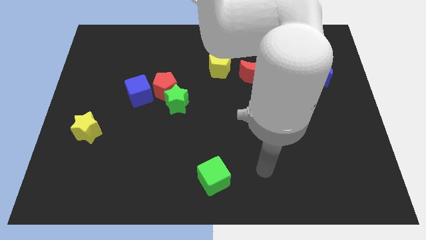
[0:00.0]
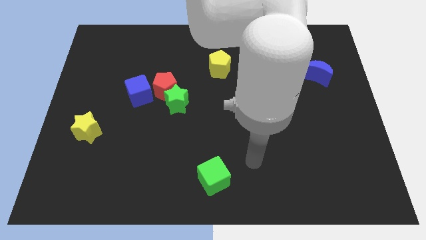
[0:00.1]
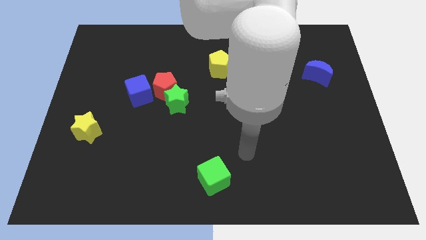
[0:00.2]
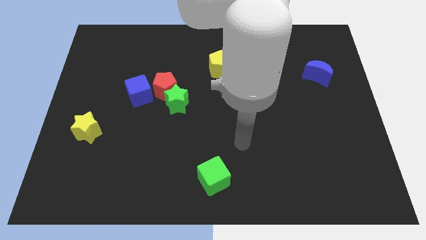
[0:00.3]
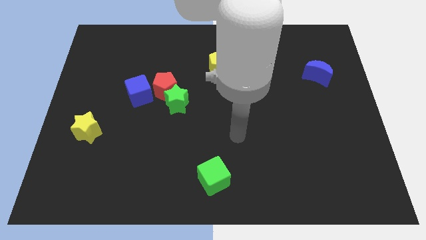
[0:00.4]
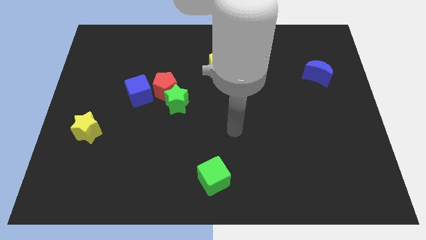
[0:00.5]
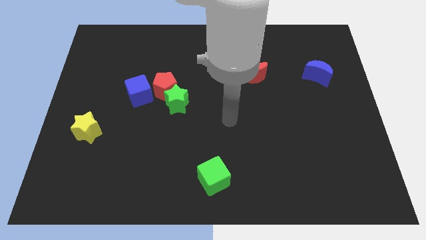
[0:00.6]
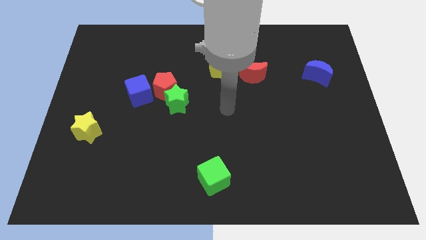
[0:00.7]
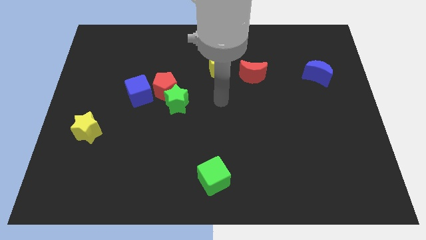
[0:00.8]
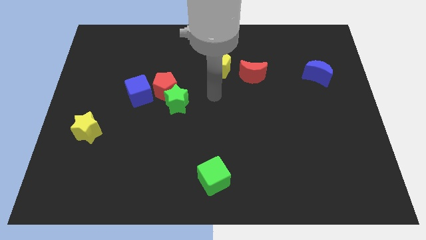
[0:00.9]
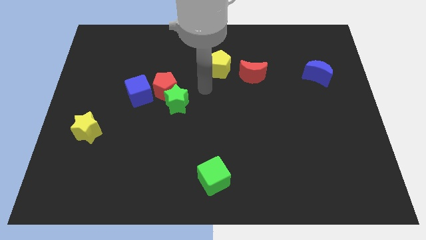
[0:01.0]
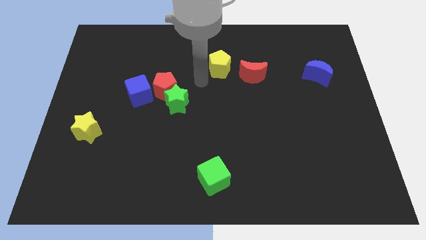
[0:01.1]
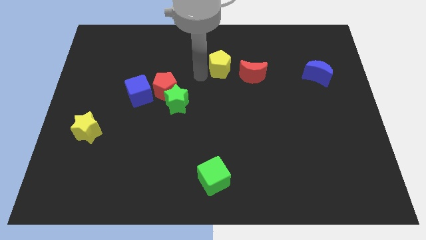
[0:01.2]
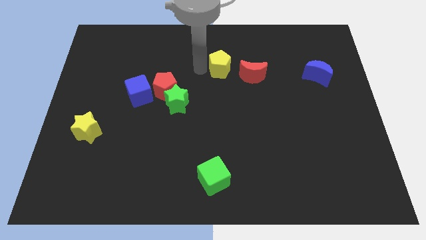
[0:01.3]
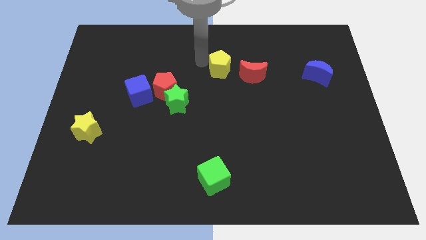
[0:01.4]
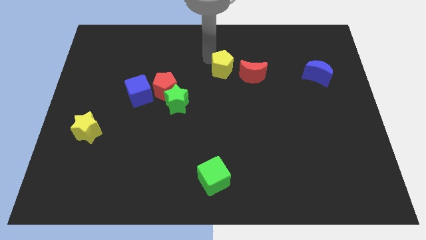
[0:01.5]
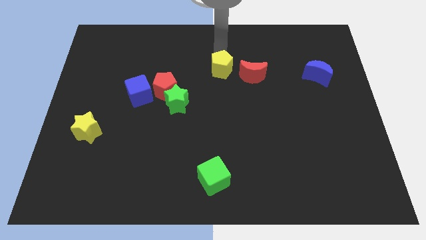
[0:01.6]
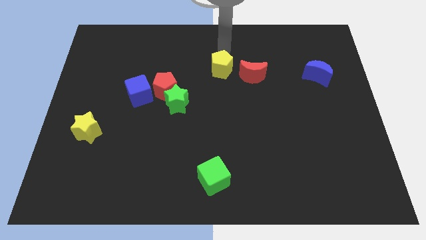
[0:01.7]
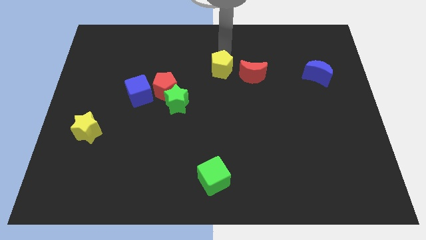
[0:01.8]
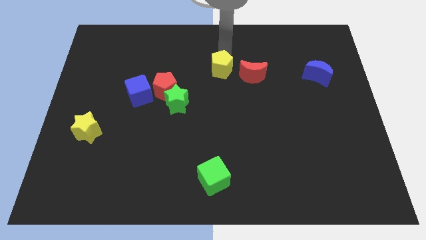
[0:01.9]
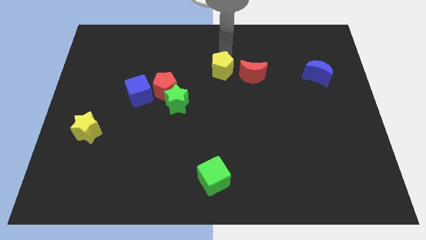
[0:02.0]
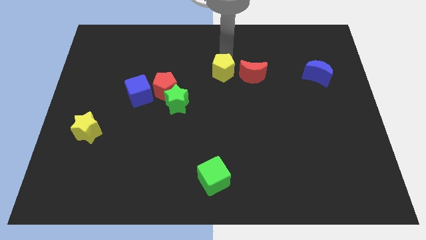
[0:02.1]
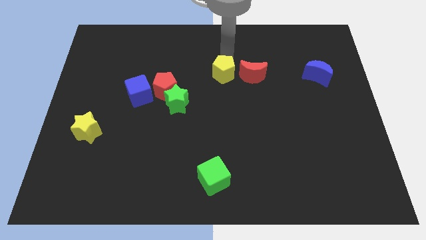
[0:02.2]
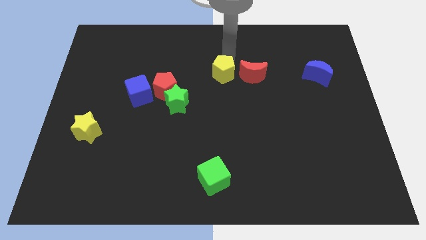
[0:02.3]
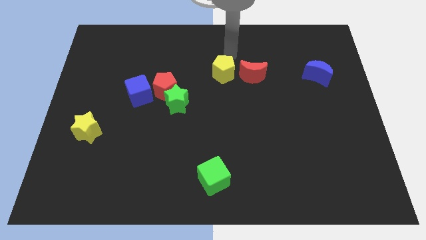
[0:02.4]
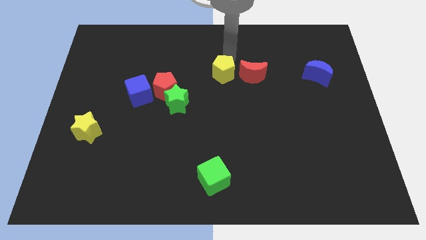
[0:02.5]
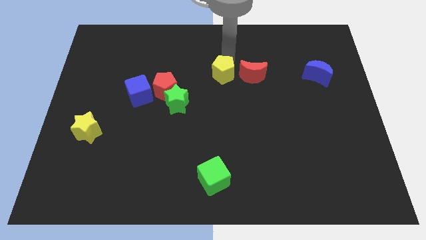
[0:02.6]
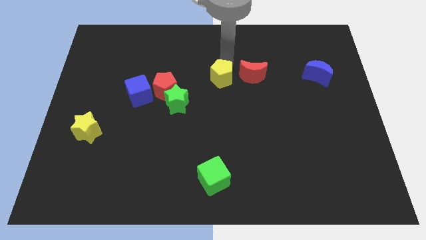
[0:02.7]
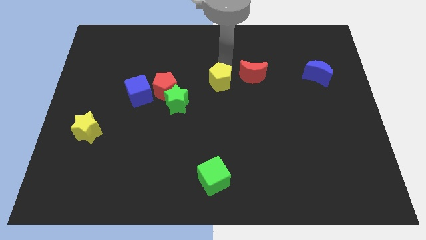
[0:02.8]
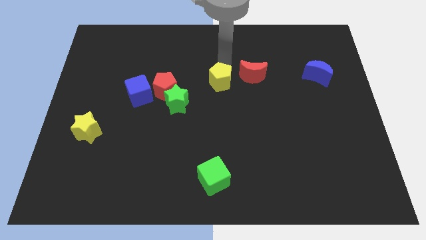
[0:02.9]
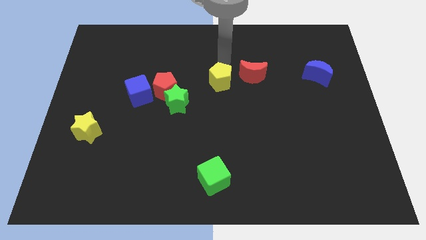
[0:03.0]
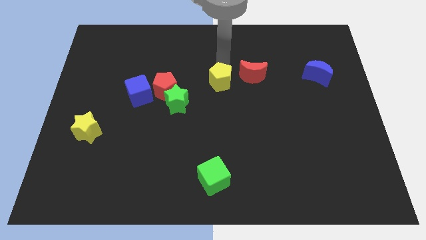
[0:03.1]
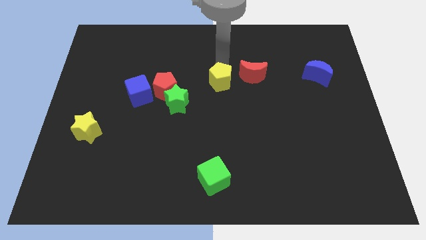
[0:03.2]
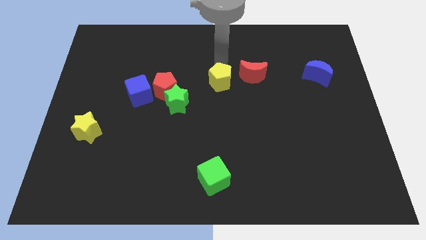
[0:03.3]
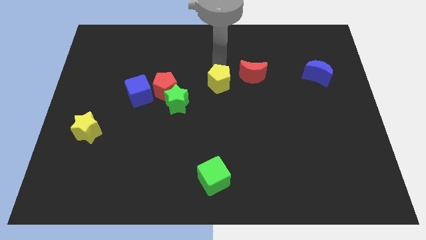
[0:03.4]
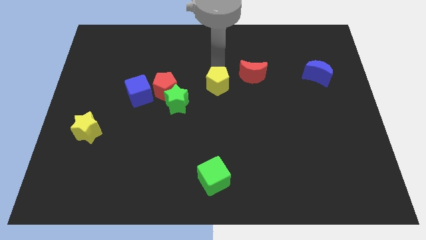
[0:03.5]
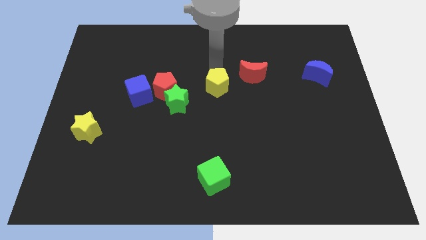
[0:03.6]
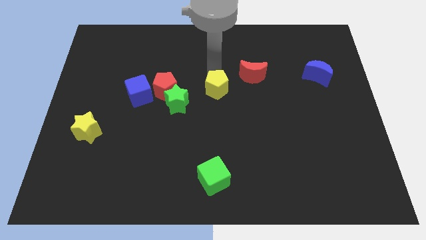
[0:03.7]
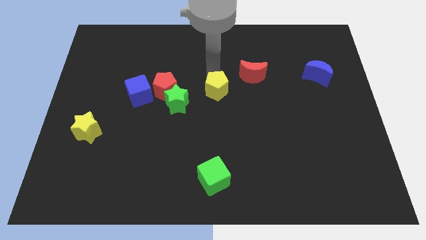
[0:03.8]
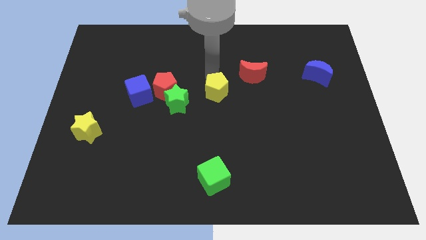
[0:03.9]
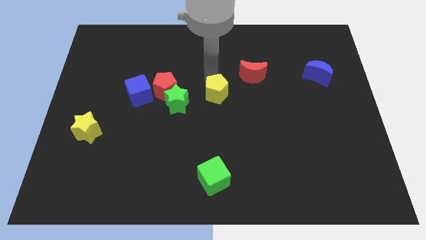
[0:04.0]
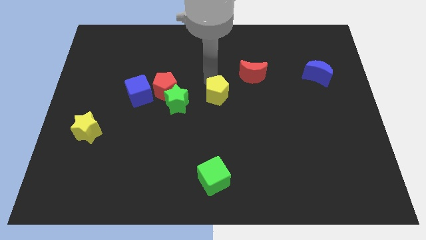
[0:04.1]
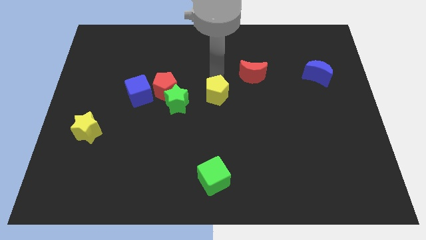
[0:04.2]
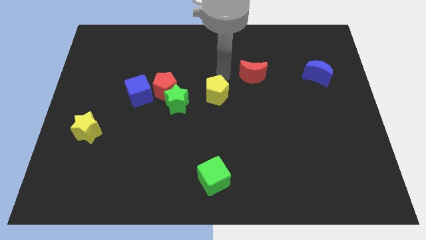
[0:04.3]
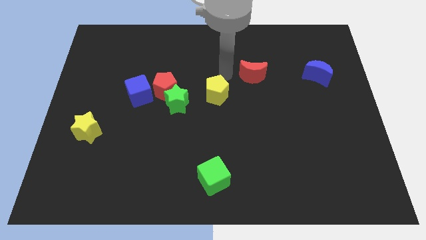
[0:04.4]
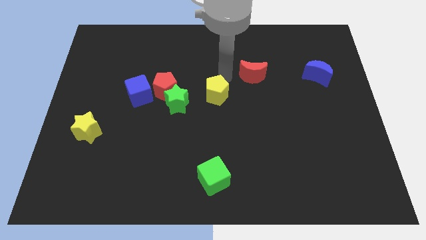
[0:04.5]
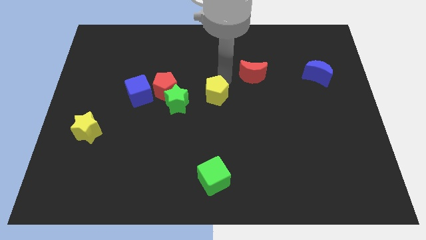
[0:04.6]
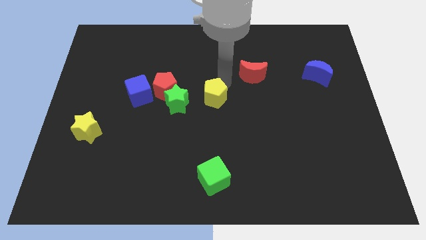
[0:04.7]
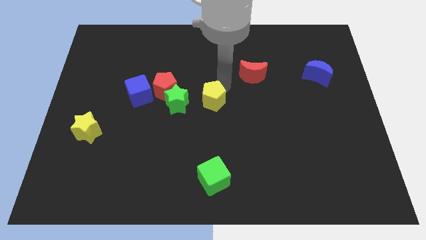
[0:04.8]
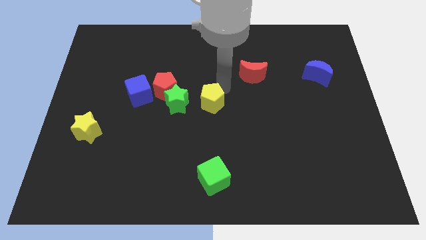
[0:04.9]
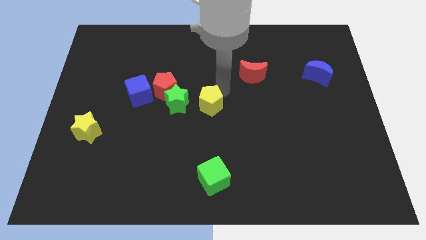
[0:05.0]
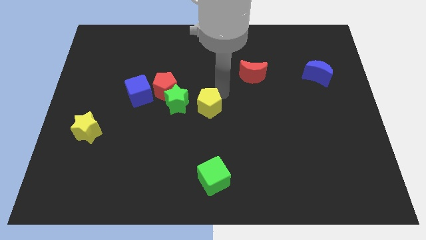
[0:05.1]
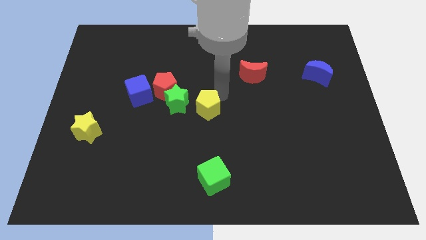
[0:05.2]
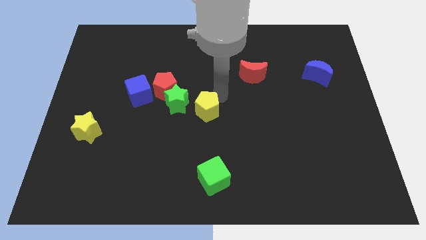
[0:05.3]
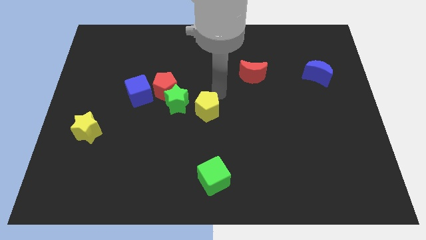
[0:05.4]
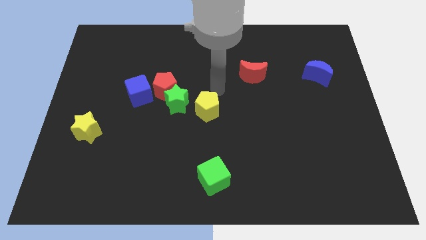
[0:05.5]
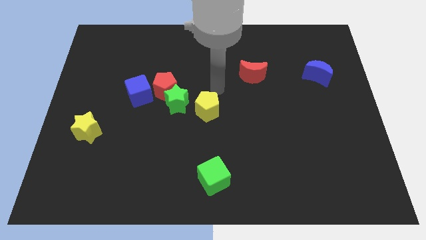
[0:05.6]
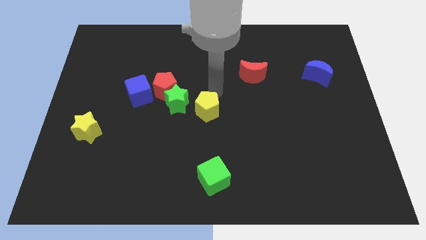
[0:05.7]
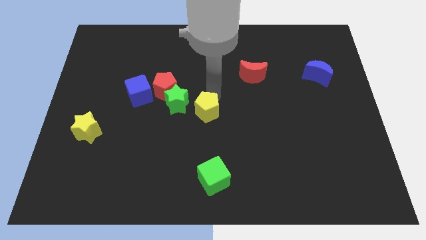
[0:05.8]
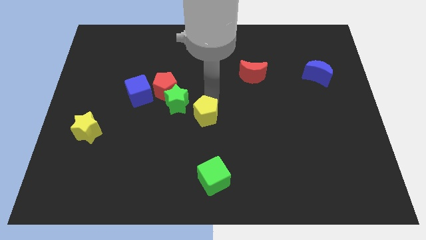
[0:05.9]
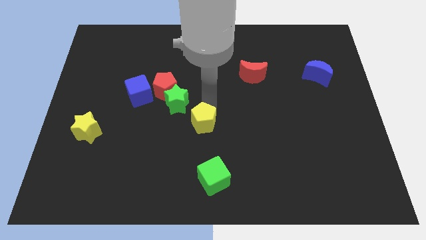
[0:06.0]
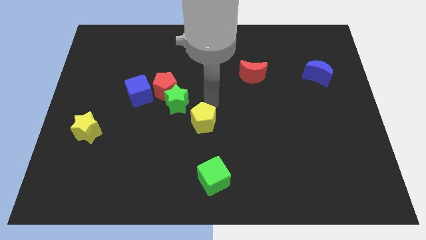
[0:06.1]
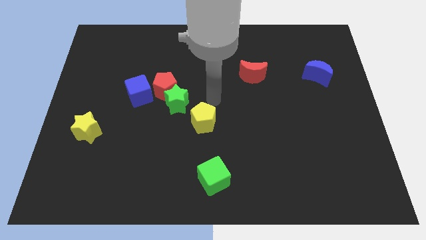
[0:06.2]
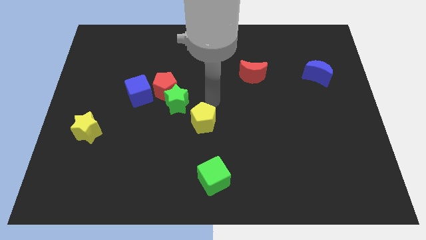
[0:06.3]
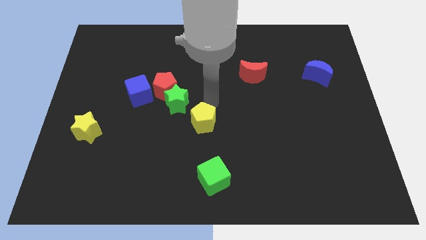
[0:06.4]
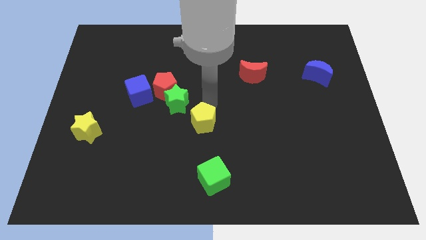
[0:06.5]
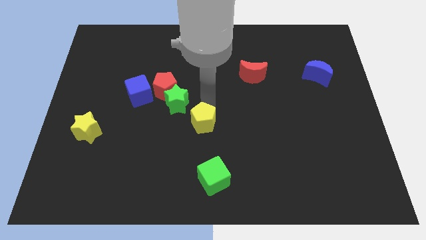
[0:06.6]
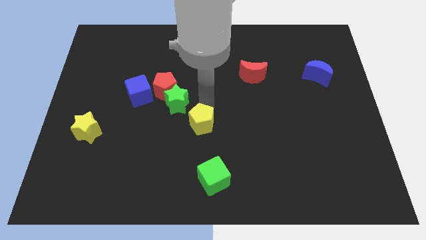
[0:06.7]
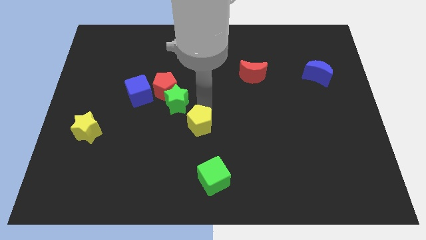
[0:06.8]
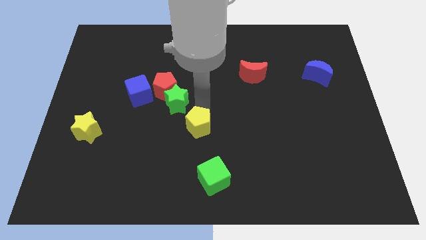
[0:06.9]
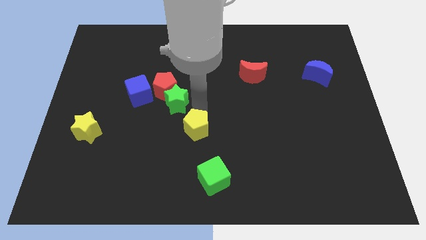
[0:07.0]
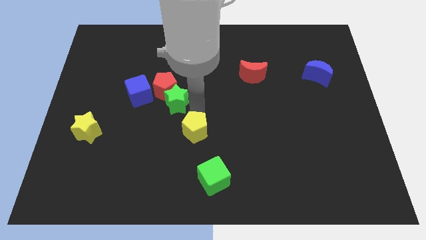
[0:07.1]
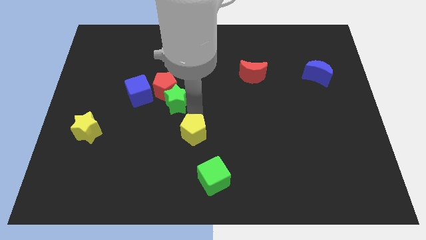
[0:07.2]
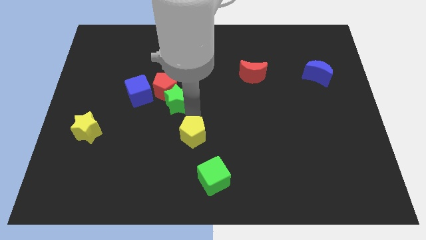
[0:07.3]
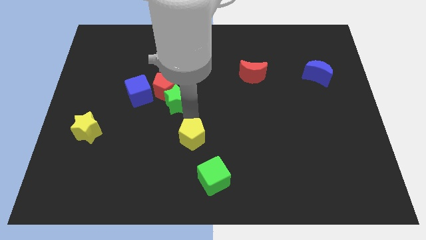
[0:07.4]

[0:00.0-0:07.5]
slide the yellow pentagon to the top left of the green cube

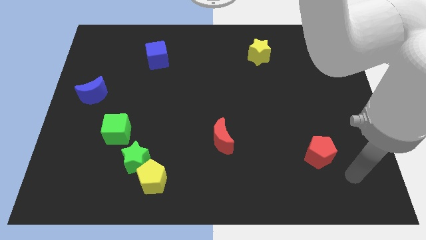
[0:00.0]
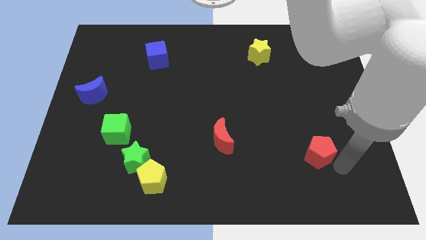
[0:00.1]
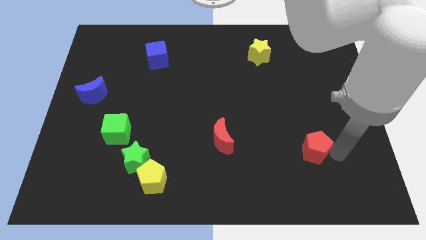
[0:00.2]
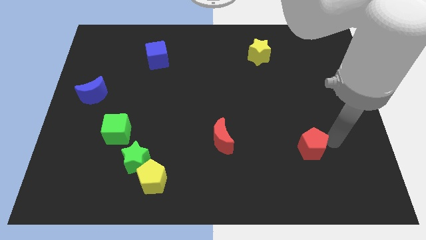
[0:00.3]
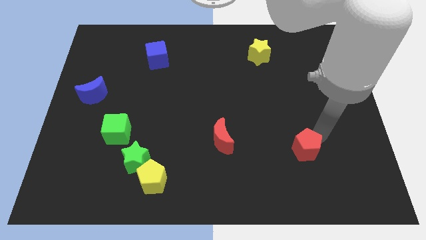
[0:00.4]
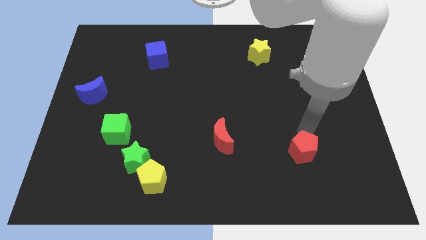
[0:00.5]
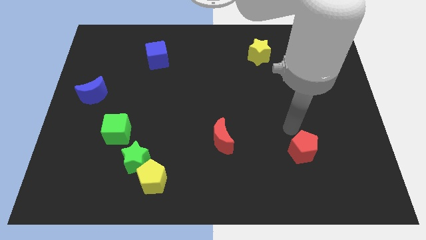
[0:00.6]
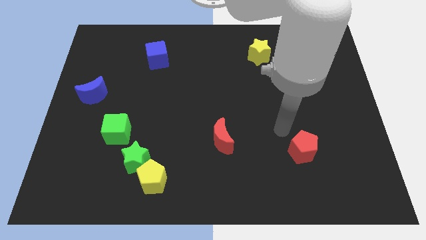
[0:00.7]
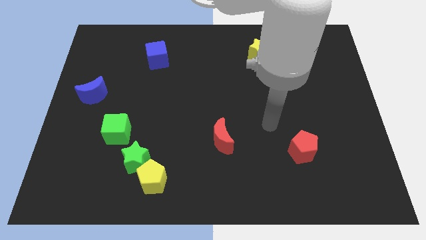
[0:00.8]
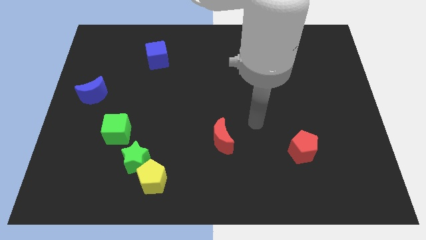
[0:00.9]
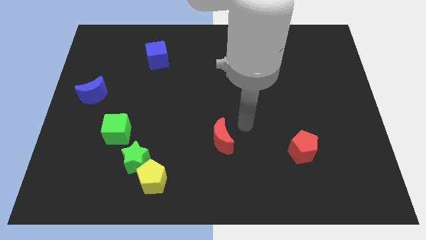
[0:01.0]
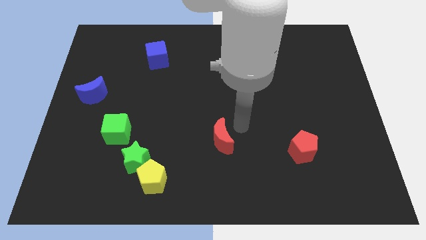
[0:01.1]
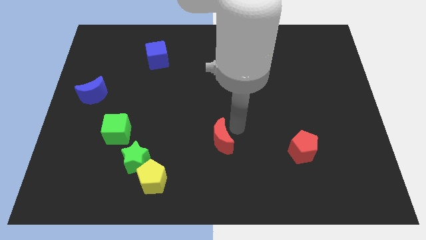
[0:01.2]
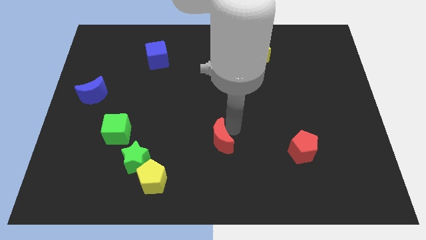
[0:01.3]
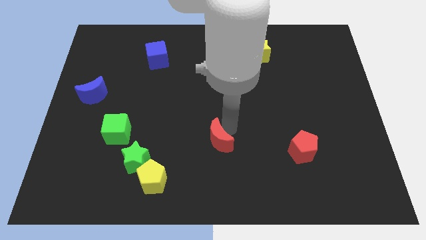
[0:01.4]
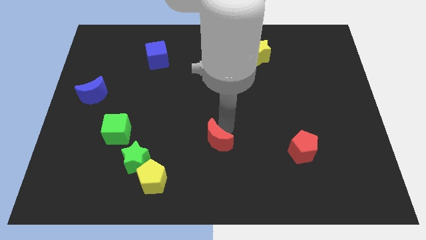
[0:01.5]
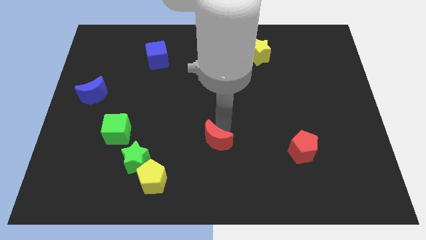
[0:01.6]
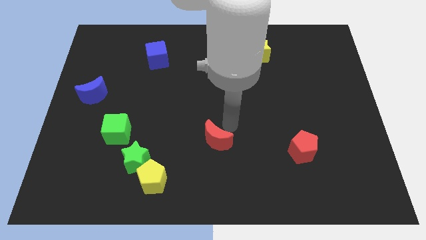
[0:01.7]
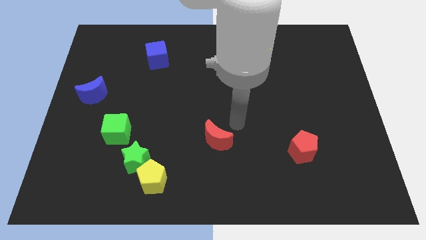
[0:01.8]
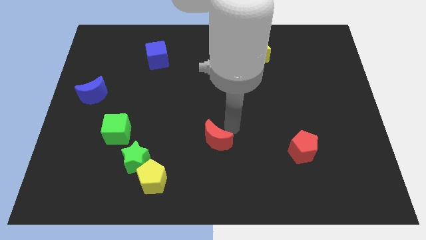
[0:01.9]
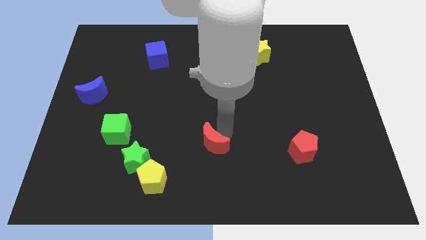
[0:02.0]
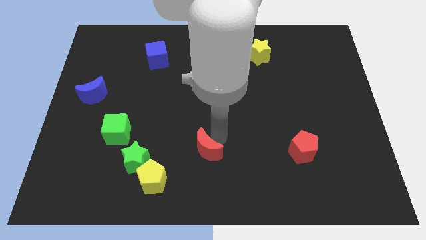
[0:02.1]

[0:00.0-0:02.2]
put the red moon right of the green star
